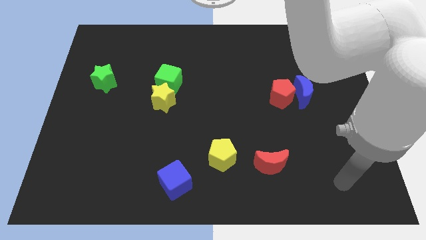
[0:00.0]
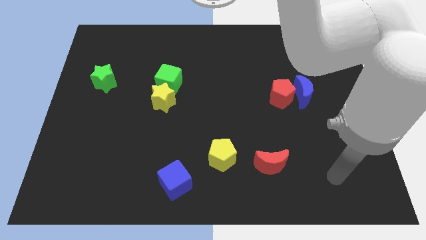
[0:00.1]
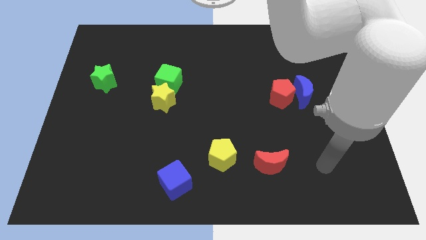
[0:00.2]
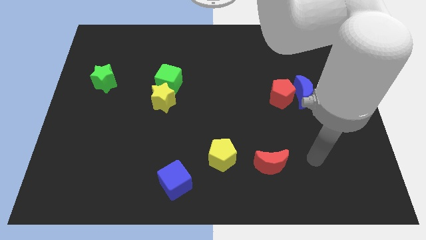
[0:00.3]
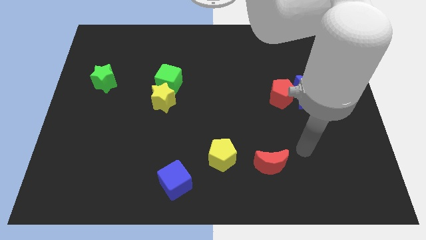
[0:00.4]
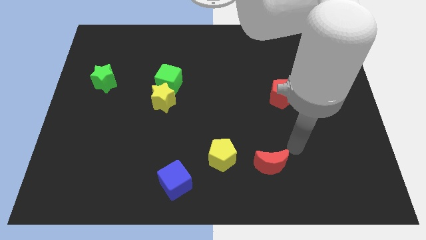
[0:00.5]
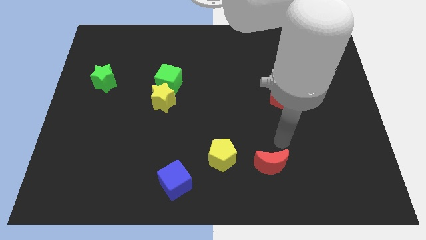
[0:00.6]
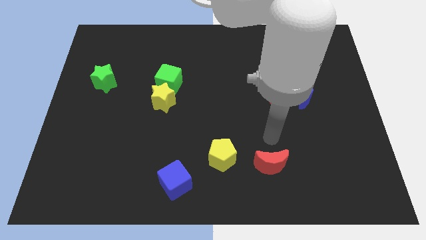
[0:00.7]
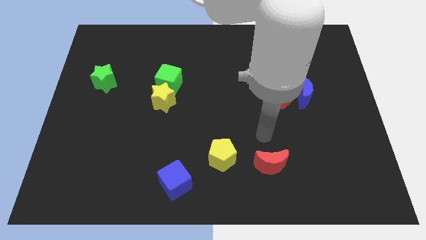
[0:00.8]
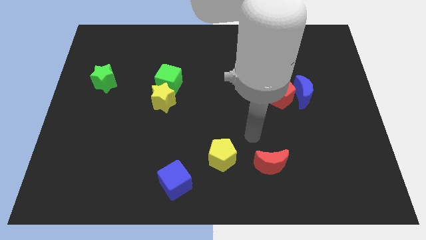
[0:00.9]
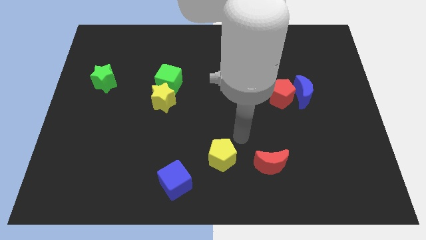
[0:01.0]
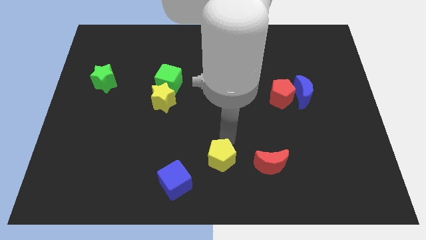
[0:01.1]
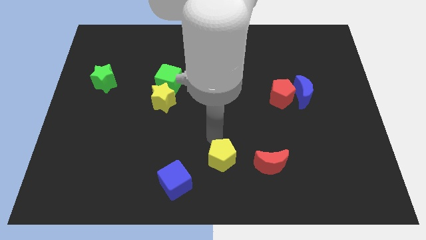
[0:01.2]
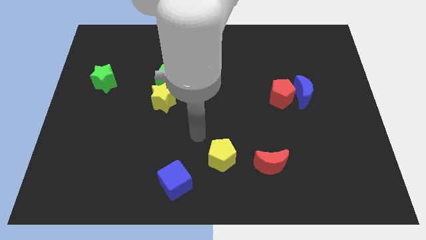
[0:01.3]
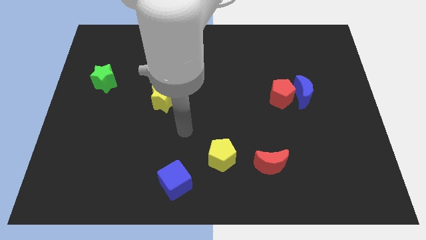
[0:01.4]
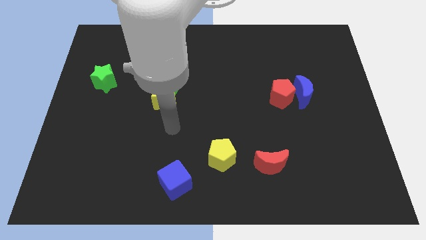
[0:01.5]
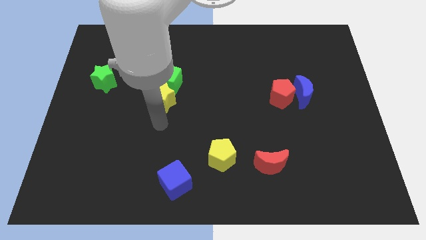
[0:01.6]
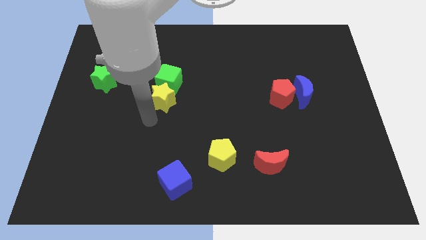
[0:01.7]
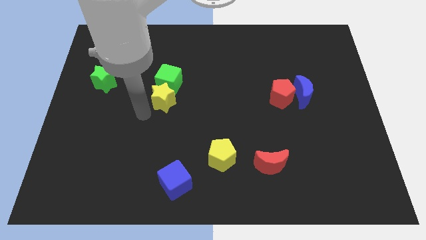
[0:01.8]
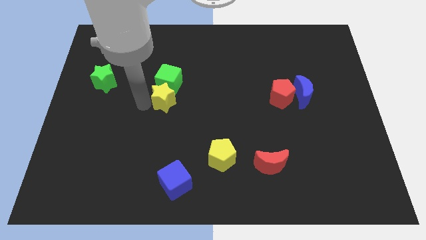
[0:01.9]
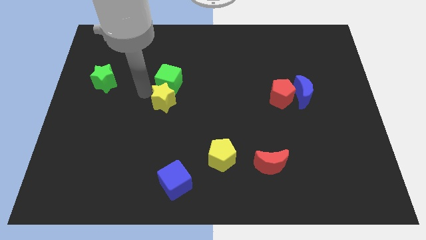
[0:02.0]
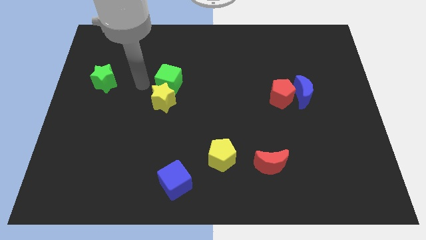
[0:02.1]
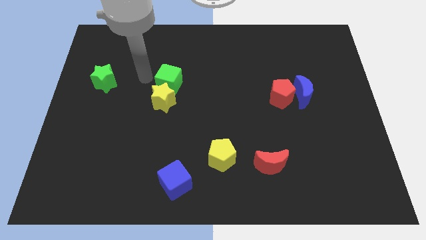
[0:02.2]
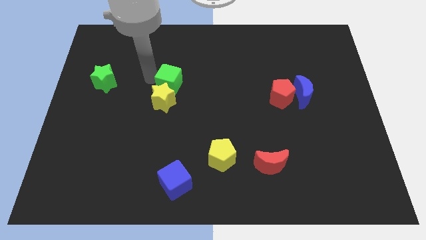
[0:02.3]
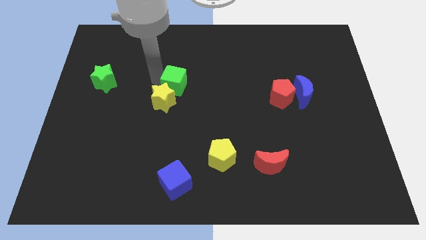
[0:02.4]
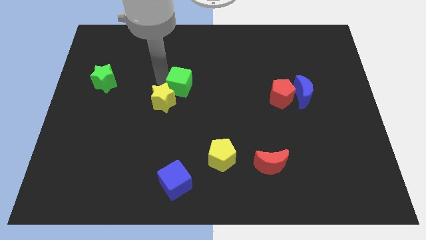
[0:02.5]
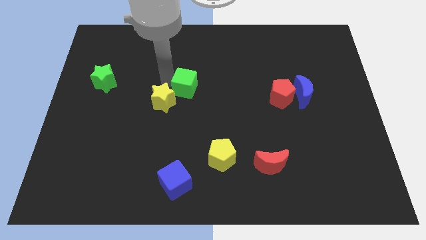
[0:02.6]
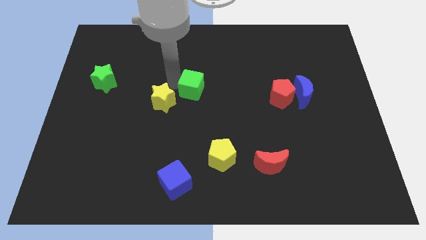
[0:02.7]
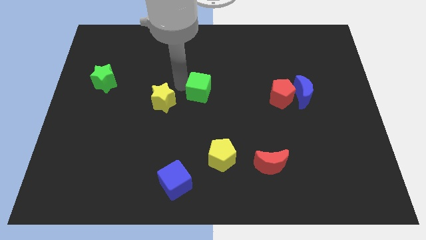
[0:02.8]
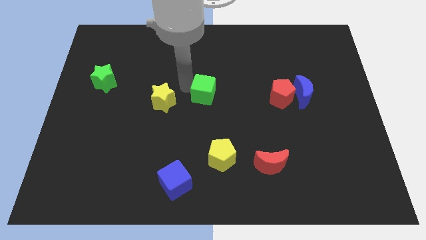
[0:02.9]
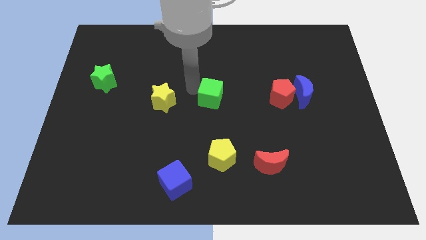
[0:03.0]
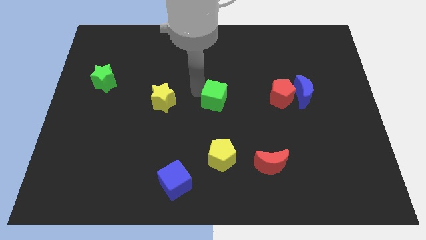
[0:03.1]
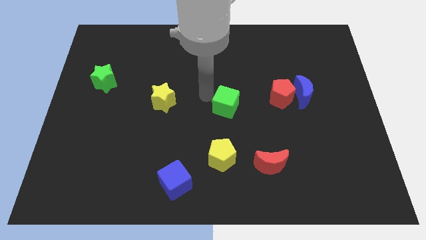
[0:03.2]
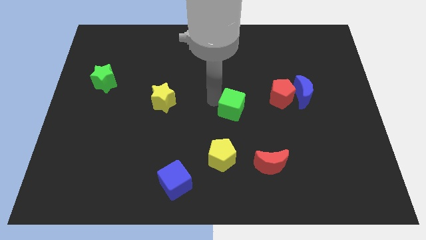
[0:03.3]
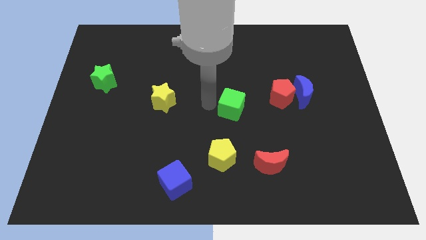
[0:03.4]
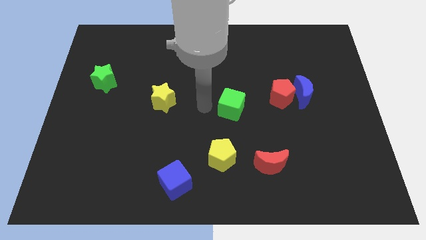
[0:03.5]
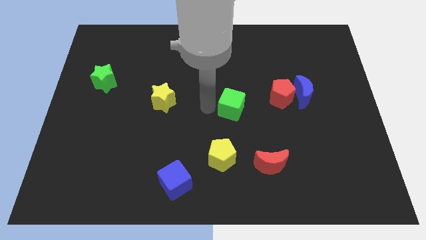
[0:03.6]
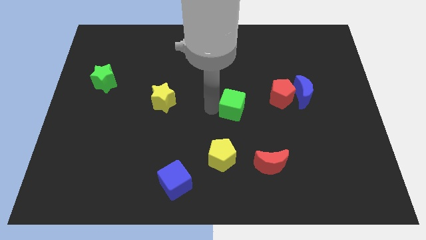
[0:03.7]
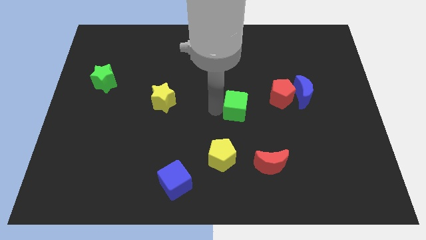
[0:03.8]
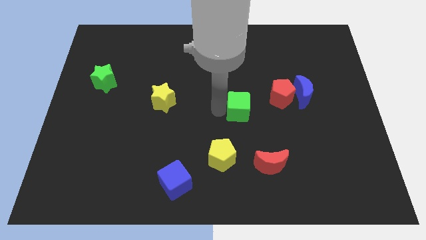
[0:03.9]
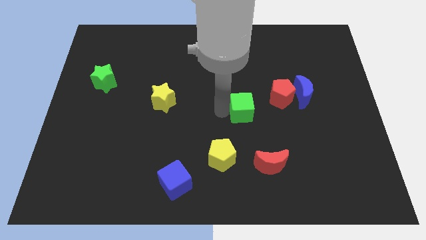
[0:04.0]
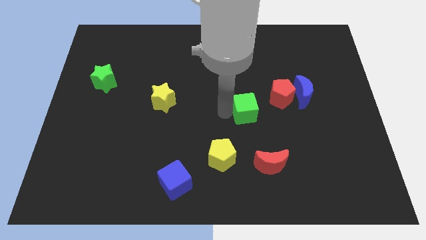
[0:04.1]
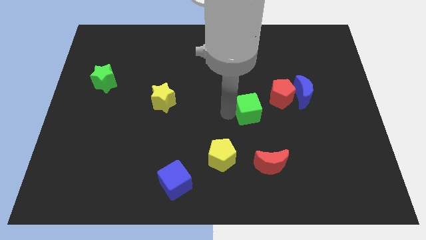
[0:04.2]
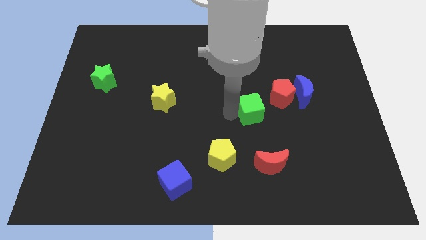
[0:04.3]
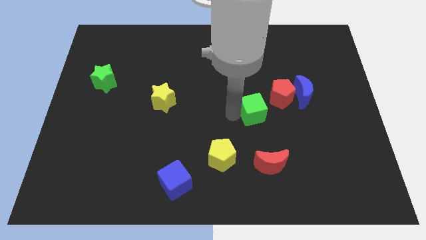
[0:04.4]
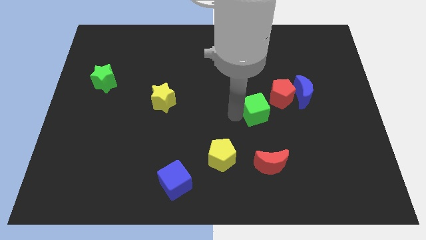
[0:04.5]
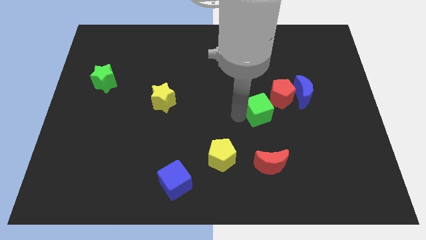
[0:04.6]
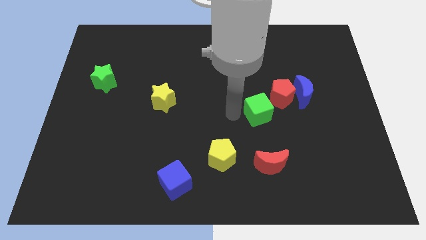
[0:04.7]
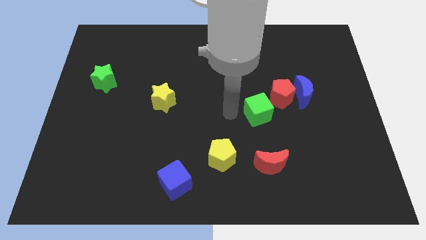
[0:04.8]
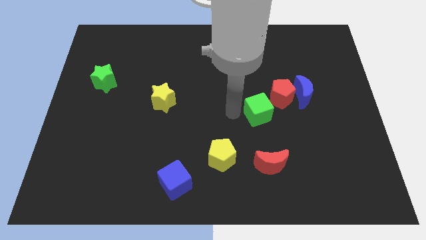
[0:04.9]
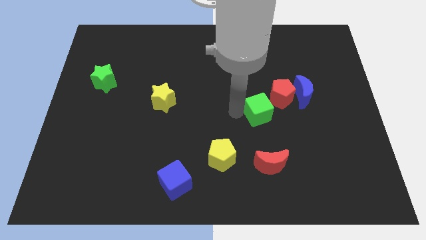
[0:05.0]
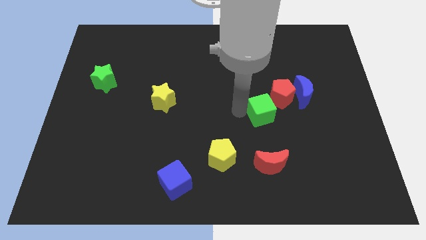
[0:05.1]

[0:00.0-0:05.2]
slide the green cube diagonally down and to the left of the blue moon

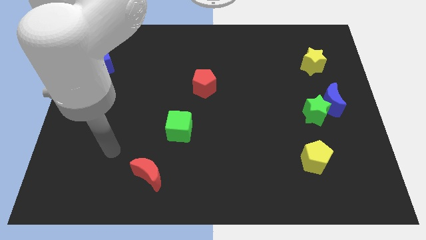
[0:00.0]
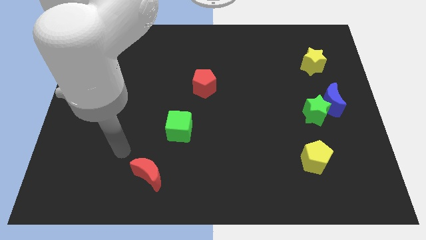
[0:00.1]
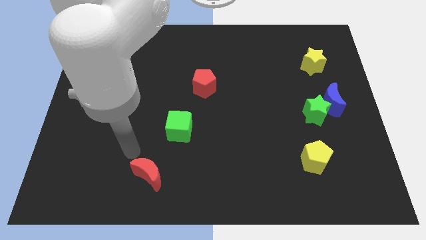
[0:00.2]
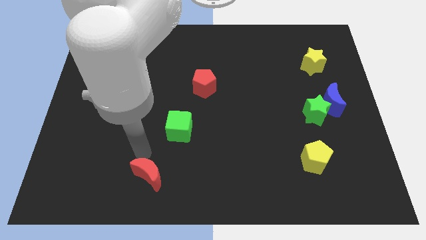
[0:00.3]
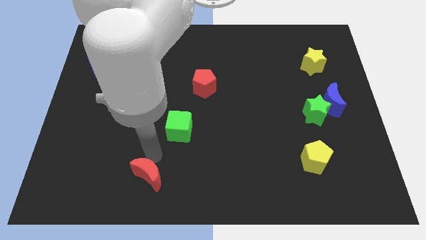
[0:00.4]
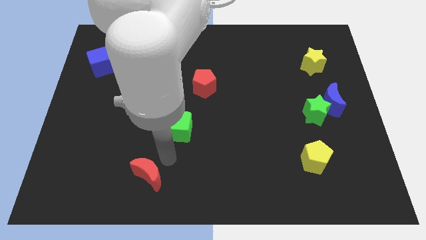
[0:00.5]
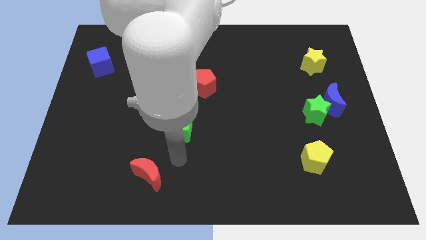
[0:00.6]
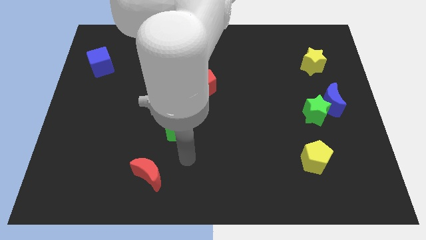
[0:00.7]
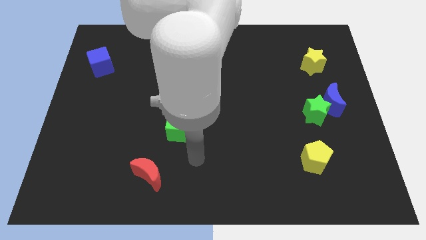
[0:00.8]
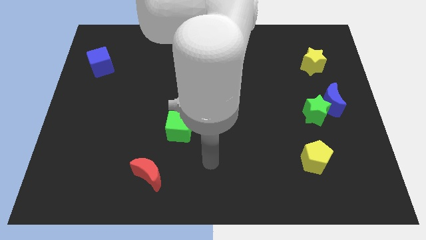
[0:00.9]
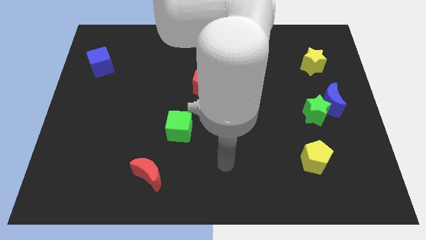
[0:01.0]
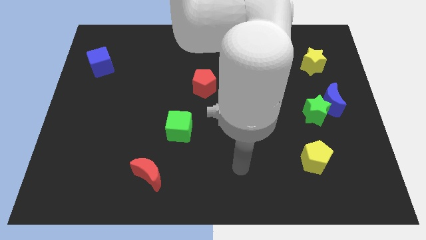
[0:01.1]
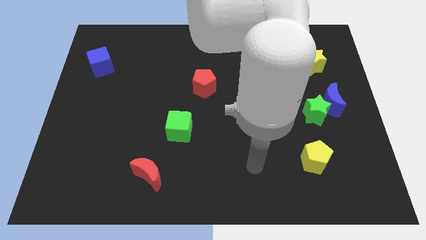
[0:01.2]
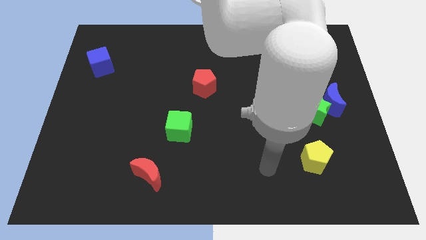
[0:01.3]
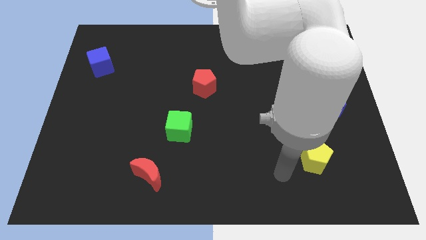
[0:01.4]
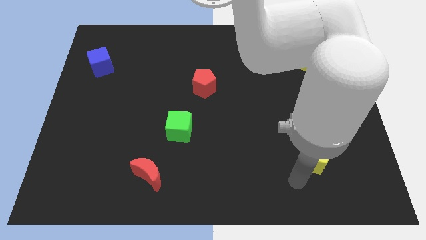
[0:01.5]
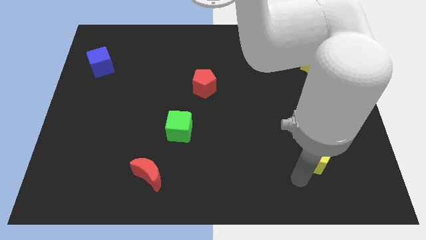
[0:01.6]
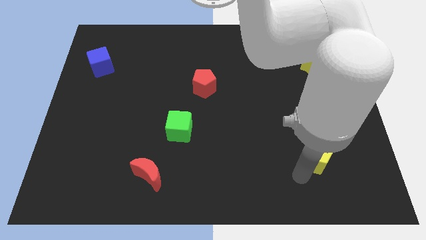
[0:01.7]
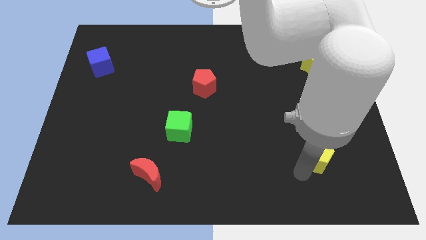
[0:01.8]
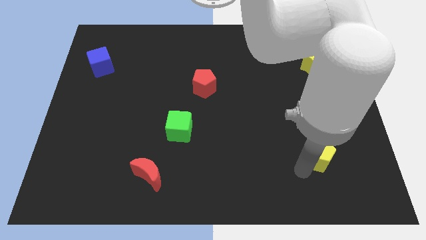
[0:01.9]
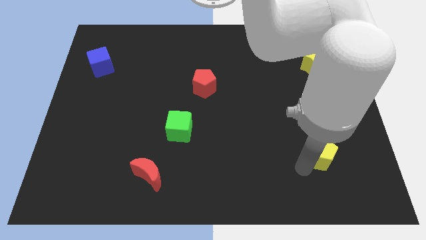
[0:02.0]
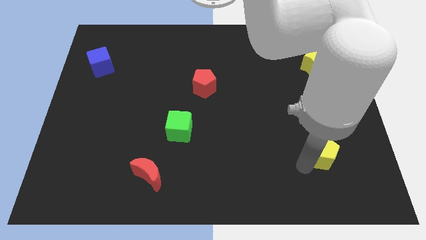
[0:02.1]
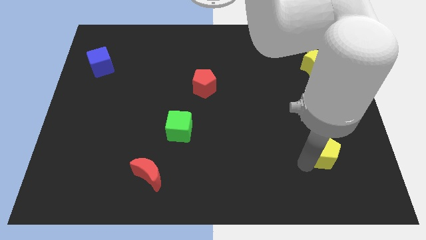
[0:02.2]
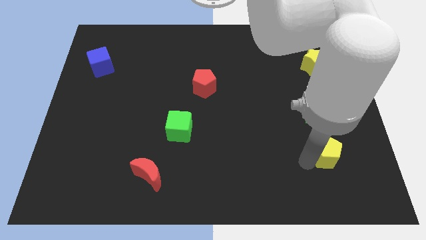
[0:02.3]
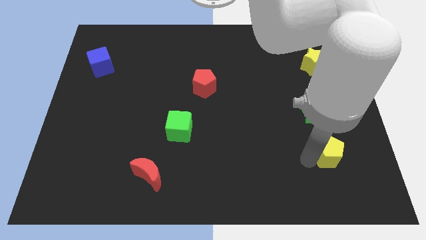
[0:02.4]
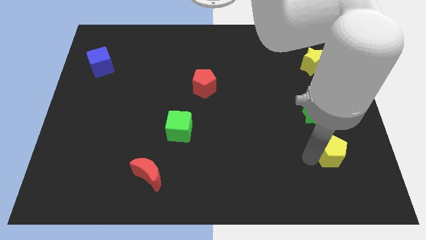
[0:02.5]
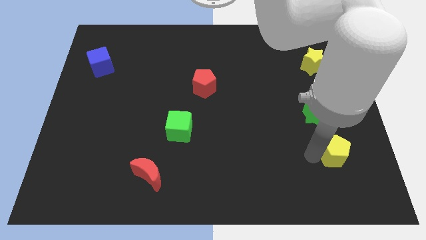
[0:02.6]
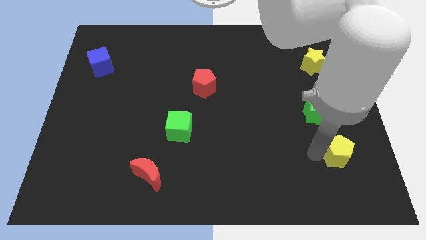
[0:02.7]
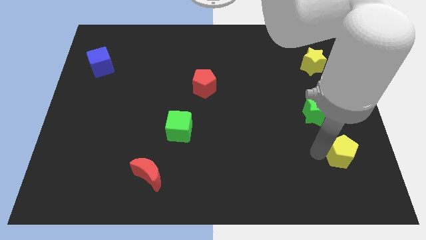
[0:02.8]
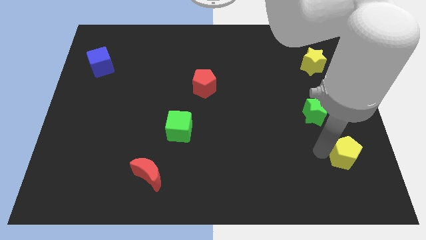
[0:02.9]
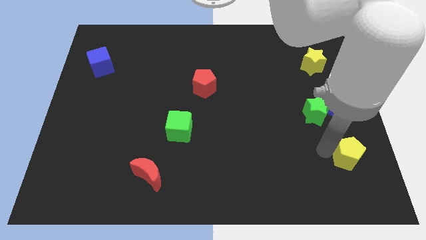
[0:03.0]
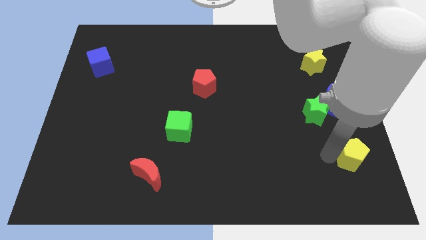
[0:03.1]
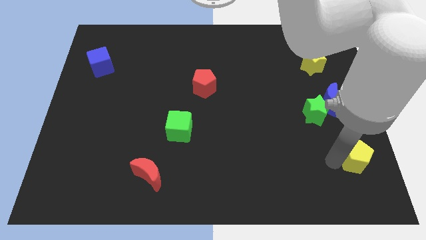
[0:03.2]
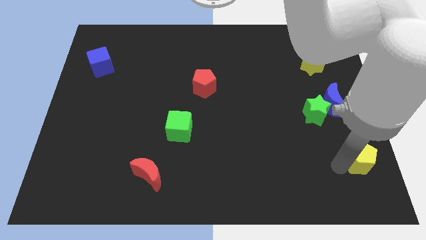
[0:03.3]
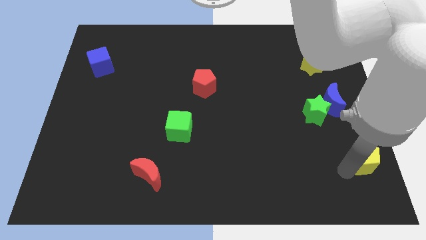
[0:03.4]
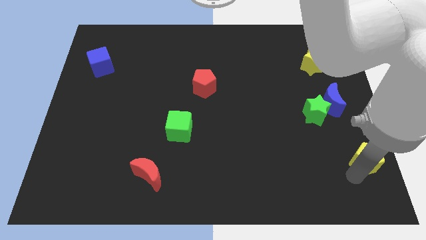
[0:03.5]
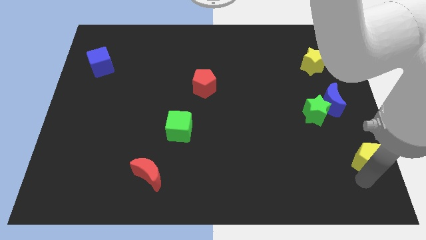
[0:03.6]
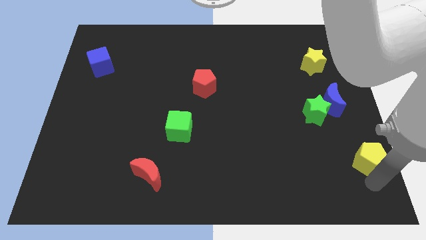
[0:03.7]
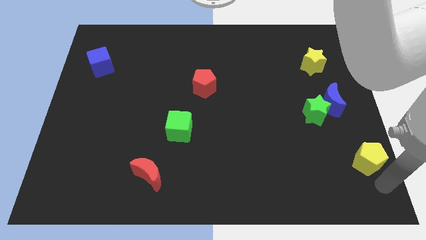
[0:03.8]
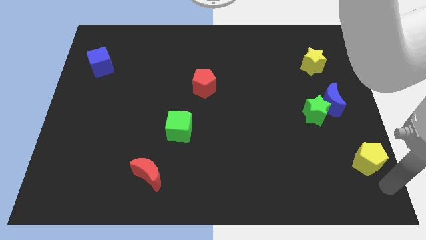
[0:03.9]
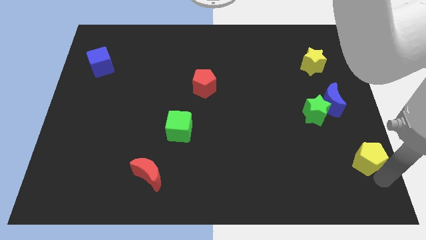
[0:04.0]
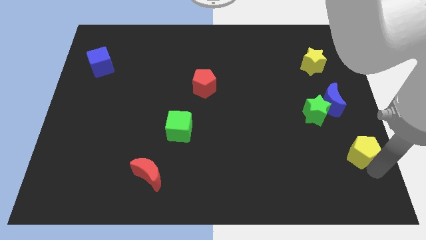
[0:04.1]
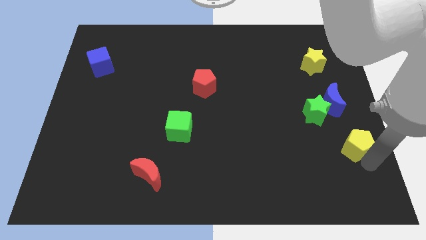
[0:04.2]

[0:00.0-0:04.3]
push the yellow pentagon diagonally down and to the right of the green star
